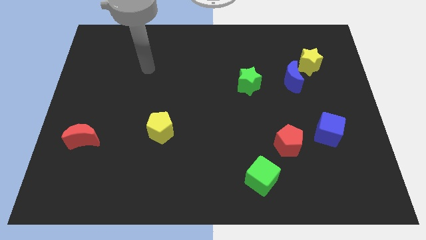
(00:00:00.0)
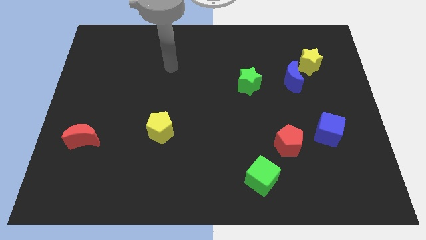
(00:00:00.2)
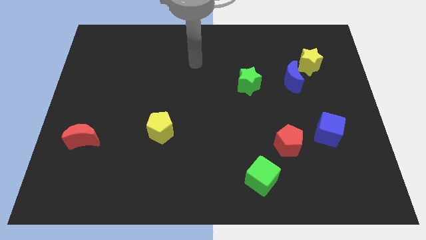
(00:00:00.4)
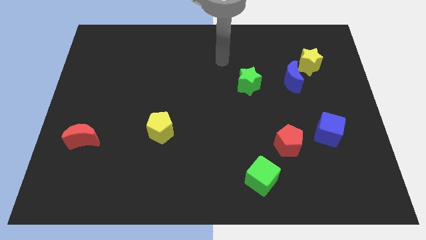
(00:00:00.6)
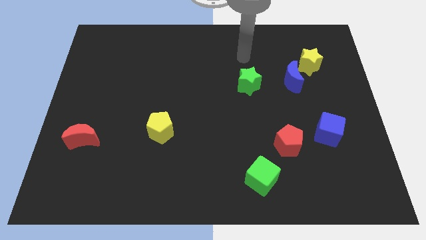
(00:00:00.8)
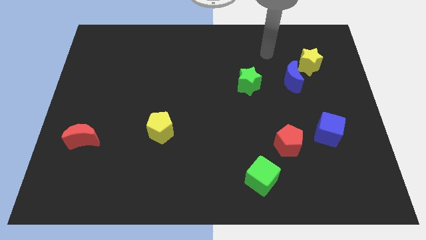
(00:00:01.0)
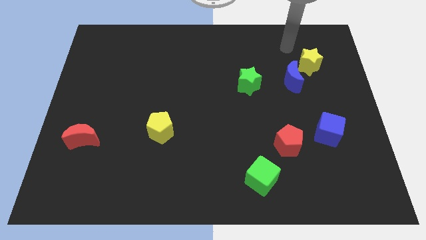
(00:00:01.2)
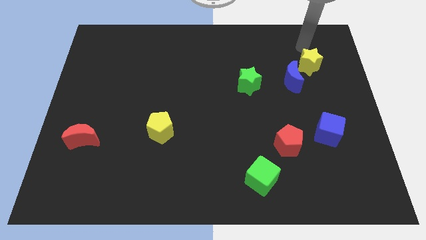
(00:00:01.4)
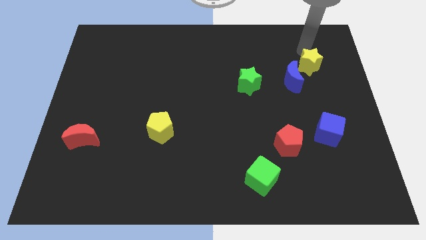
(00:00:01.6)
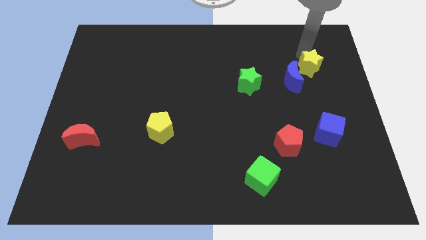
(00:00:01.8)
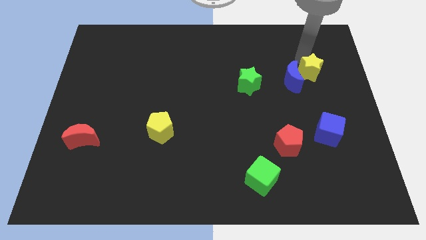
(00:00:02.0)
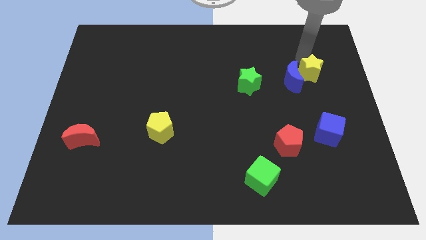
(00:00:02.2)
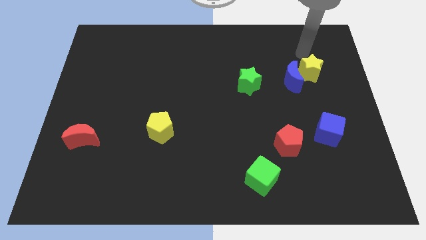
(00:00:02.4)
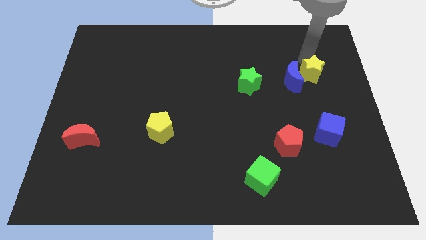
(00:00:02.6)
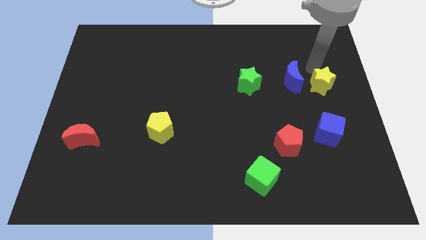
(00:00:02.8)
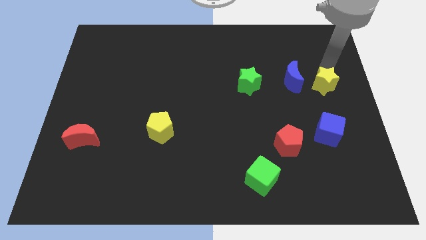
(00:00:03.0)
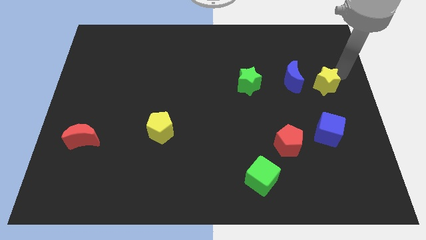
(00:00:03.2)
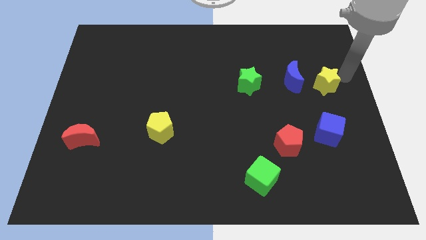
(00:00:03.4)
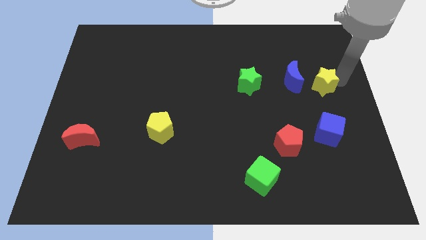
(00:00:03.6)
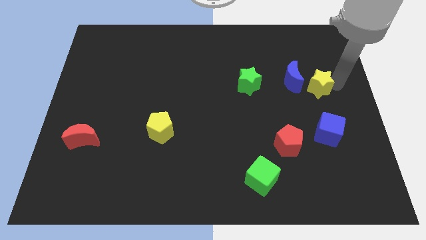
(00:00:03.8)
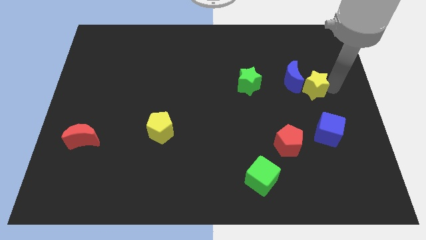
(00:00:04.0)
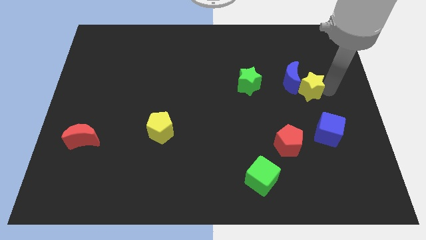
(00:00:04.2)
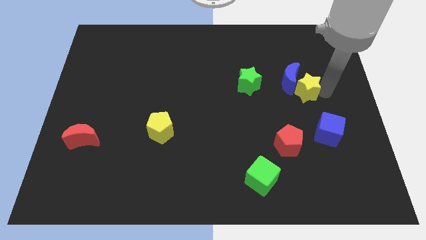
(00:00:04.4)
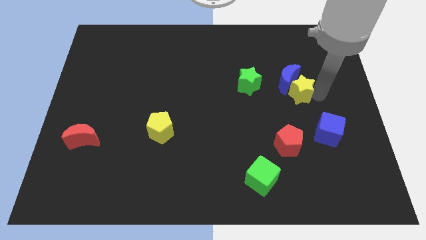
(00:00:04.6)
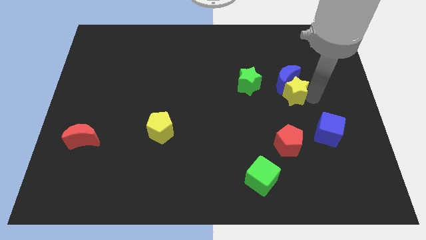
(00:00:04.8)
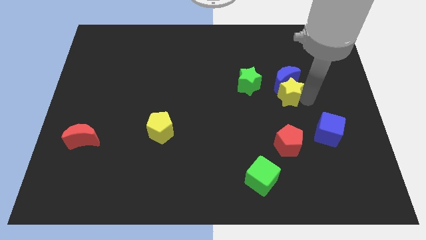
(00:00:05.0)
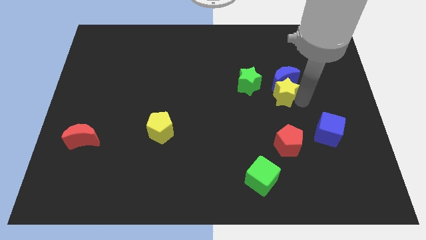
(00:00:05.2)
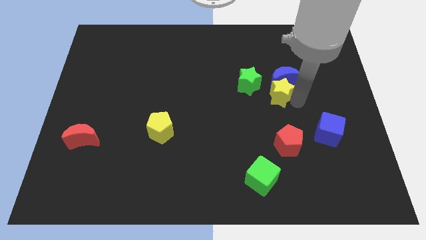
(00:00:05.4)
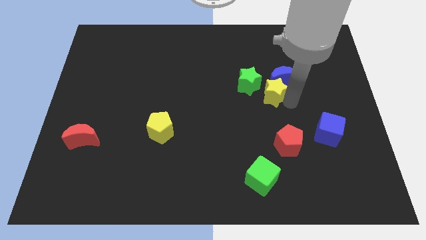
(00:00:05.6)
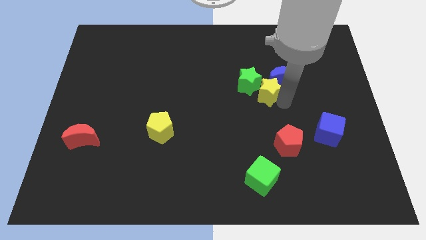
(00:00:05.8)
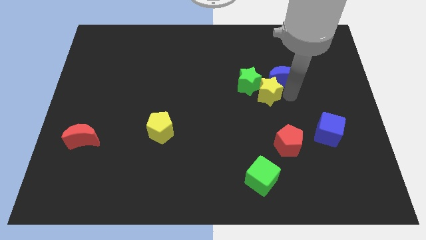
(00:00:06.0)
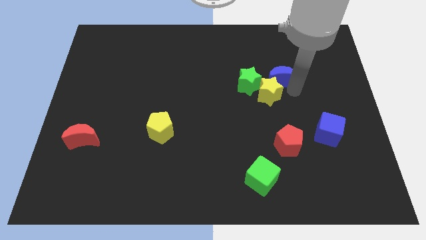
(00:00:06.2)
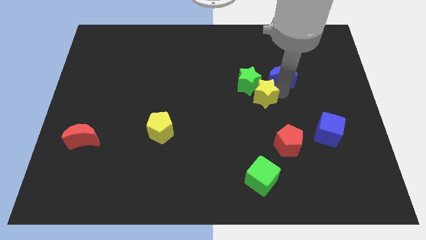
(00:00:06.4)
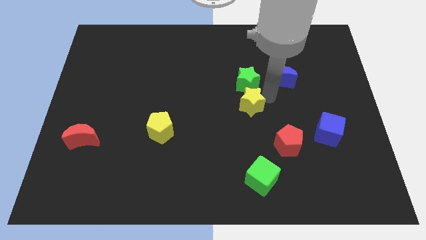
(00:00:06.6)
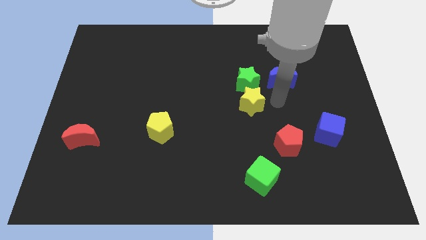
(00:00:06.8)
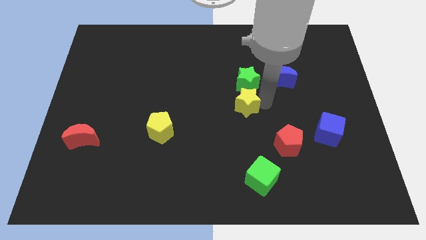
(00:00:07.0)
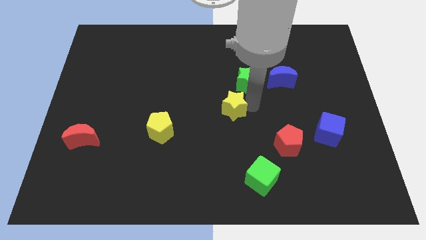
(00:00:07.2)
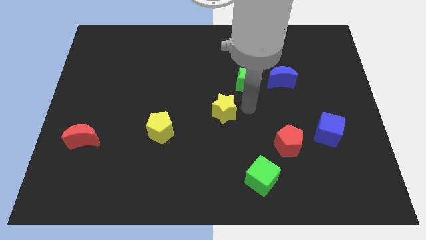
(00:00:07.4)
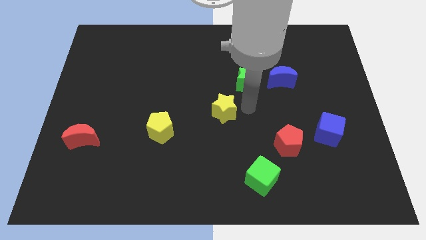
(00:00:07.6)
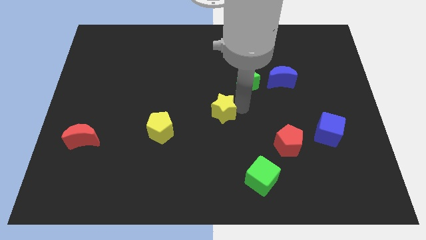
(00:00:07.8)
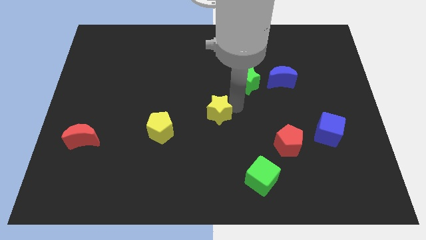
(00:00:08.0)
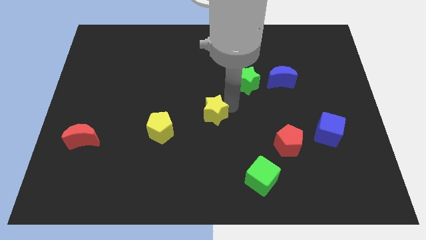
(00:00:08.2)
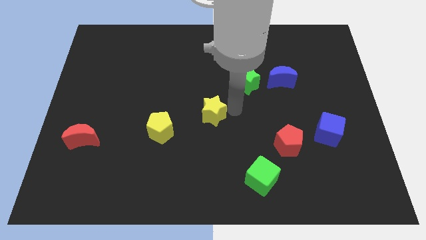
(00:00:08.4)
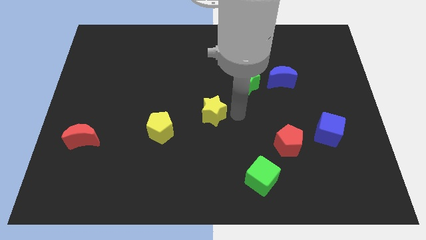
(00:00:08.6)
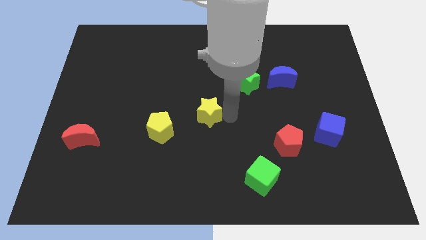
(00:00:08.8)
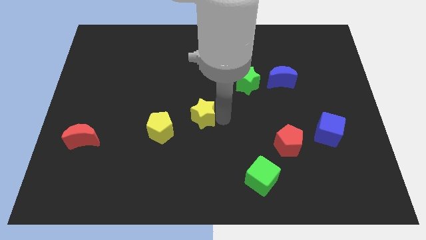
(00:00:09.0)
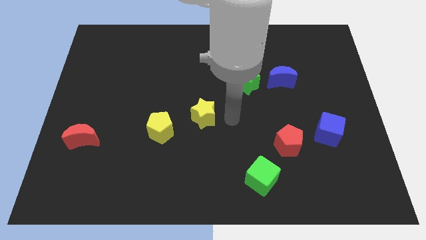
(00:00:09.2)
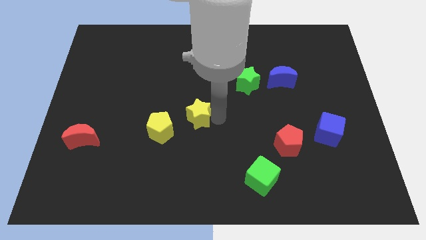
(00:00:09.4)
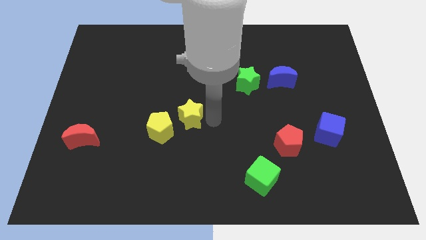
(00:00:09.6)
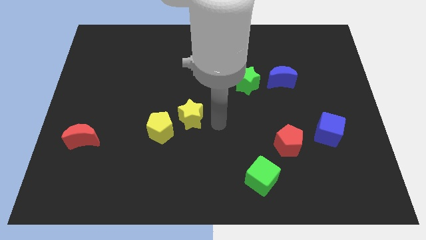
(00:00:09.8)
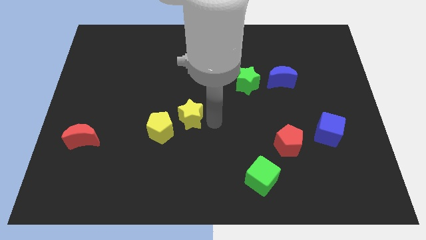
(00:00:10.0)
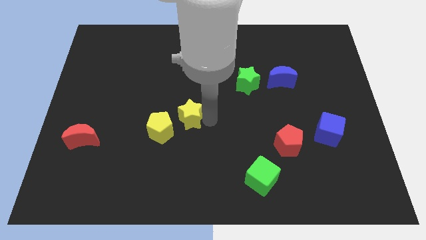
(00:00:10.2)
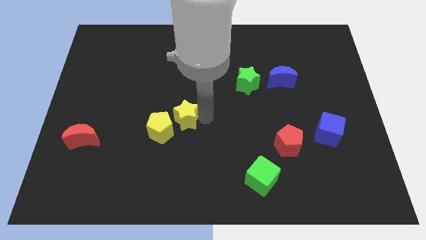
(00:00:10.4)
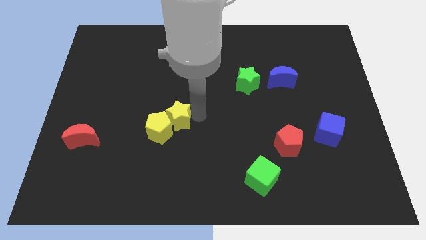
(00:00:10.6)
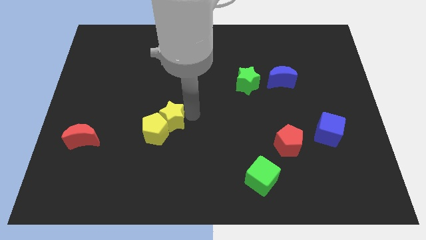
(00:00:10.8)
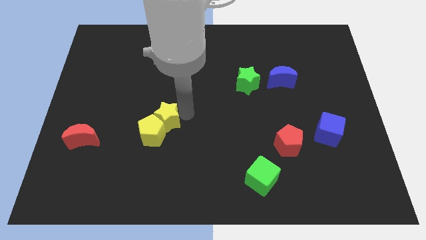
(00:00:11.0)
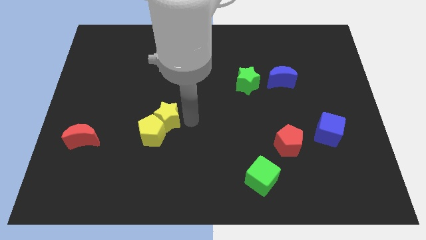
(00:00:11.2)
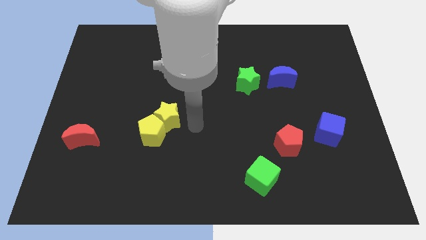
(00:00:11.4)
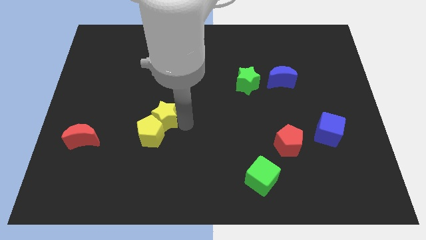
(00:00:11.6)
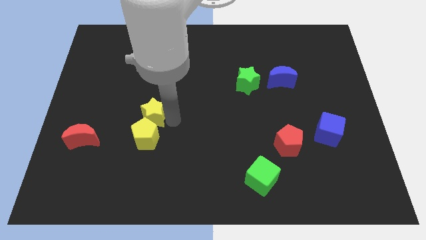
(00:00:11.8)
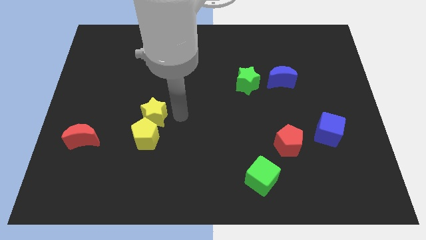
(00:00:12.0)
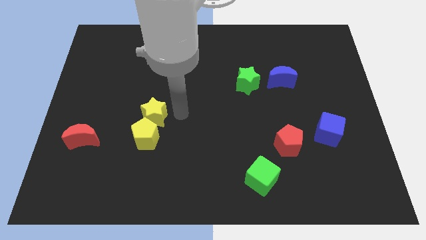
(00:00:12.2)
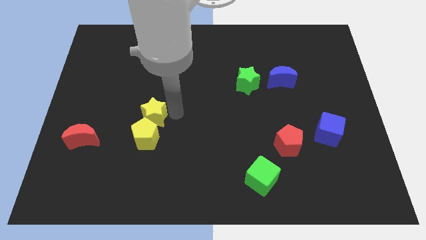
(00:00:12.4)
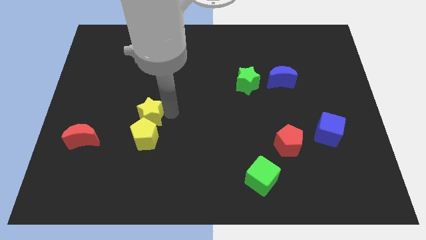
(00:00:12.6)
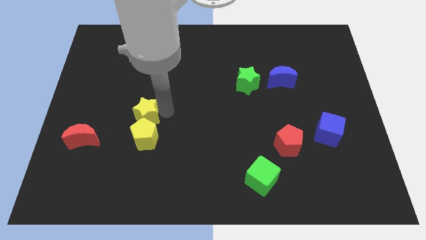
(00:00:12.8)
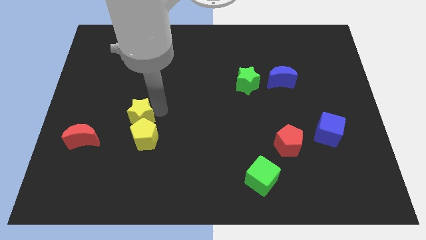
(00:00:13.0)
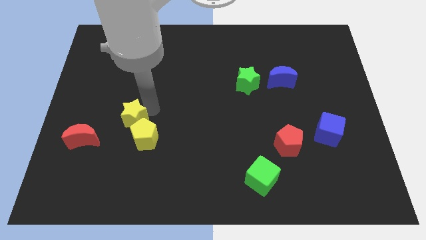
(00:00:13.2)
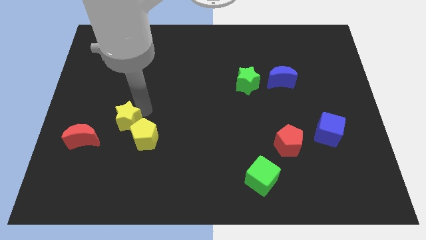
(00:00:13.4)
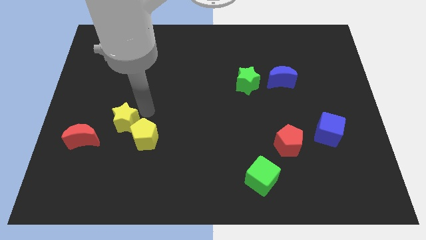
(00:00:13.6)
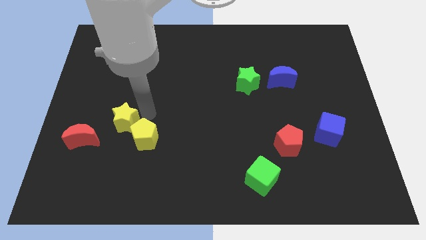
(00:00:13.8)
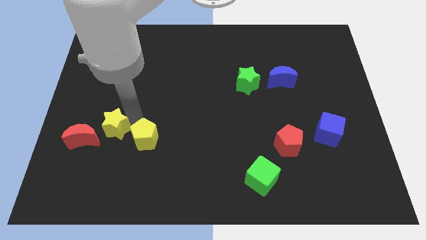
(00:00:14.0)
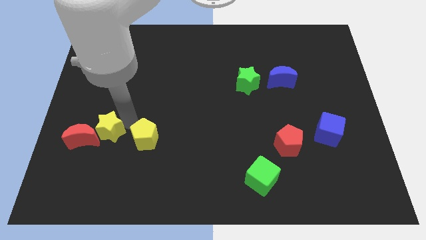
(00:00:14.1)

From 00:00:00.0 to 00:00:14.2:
move the yellow star to the red moon

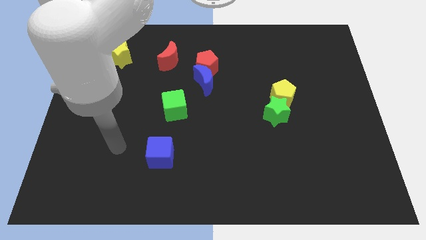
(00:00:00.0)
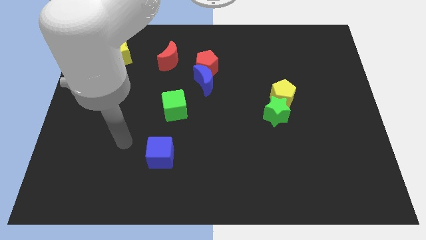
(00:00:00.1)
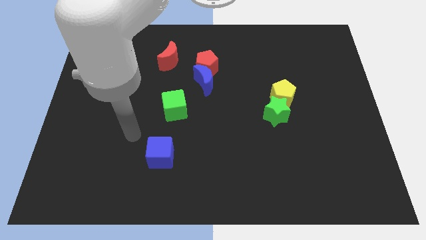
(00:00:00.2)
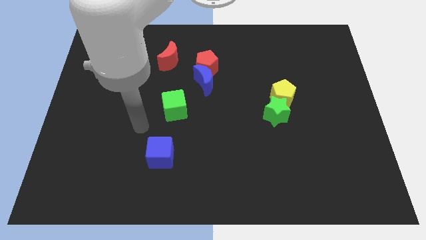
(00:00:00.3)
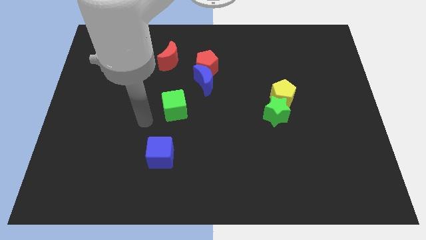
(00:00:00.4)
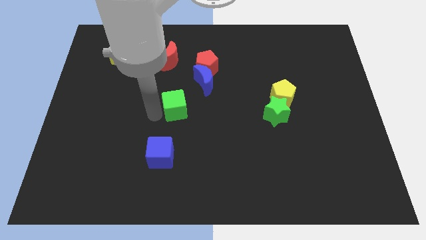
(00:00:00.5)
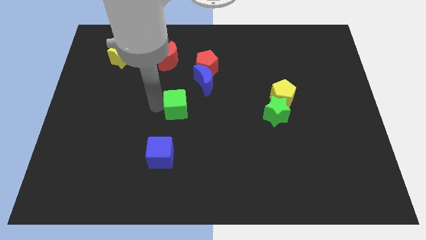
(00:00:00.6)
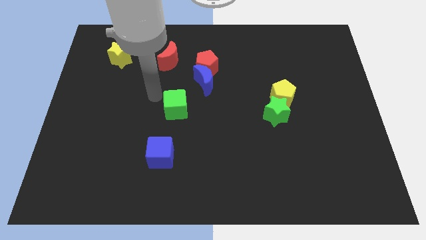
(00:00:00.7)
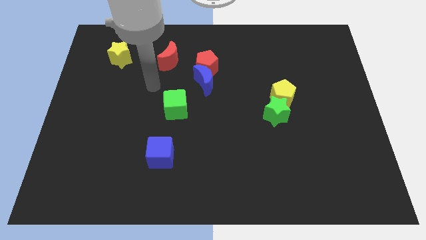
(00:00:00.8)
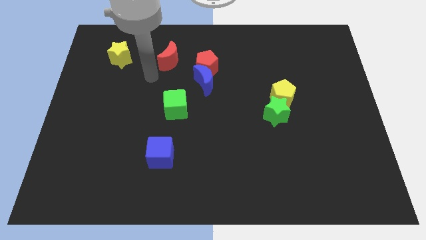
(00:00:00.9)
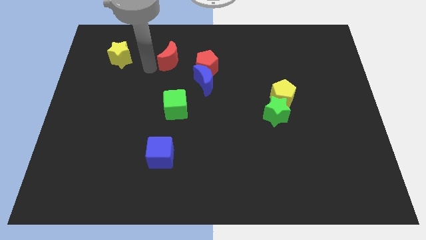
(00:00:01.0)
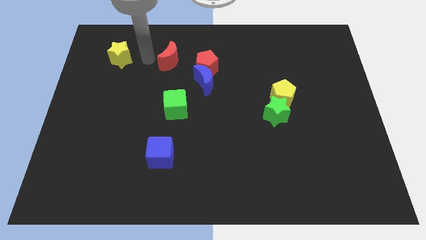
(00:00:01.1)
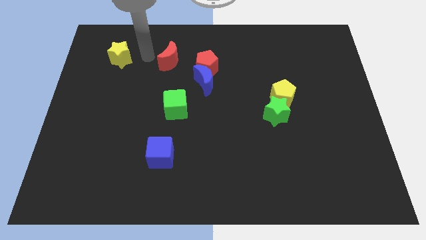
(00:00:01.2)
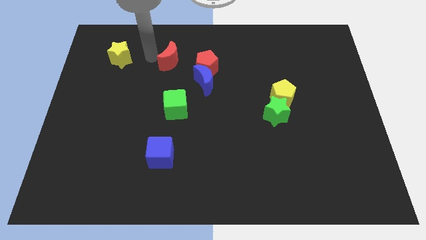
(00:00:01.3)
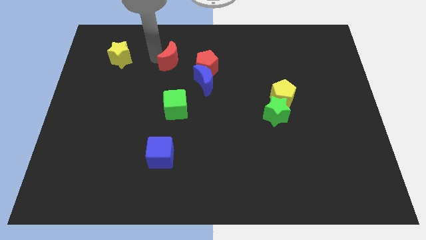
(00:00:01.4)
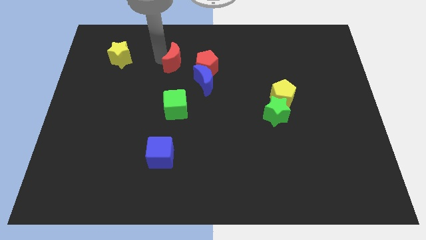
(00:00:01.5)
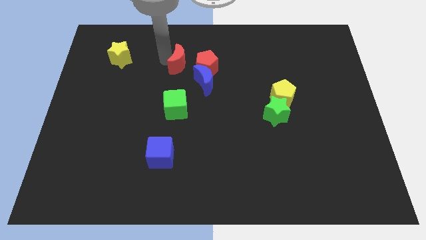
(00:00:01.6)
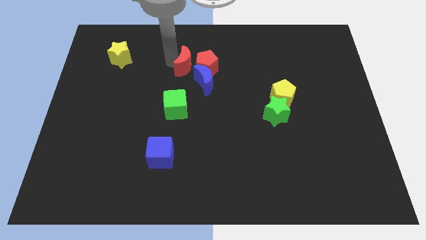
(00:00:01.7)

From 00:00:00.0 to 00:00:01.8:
slide the red moon next to the red pentagon
